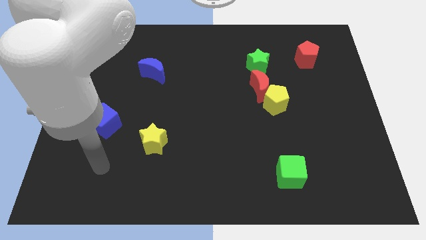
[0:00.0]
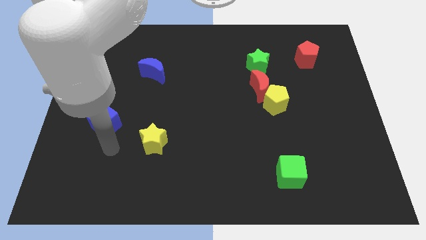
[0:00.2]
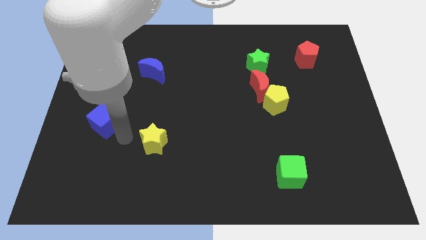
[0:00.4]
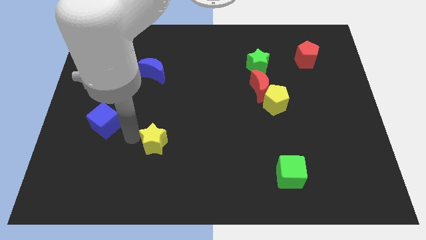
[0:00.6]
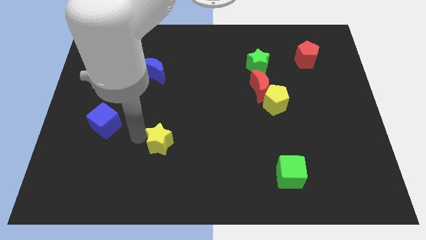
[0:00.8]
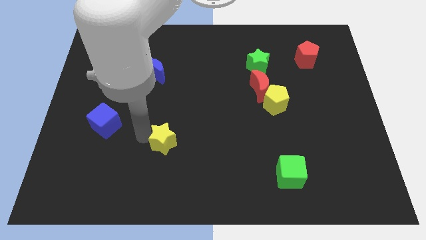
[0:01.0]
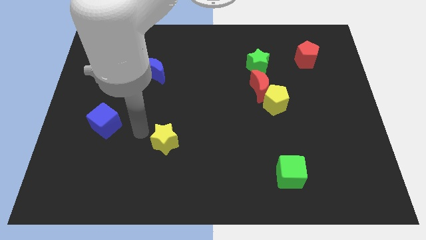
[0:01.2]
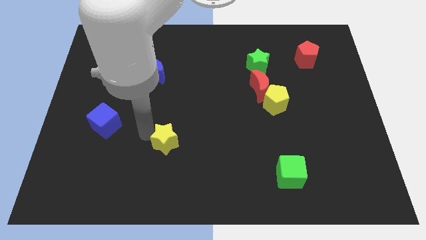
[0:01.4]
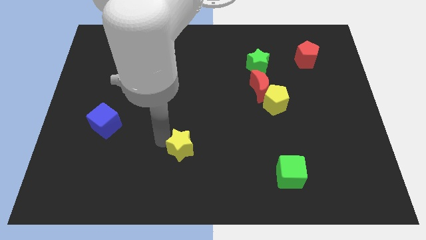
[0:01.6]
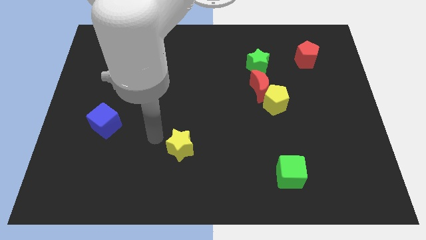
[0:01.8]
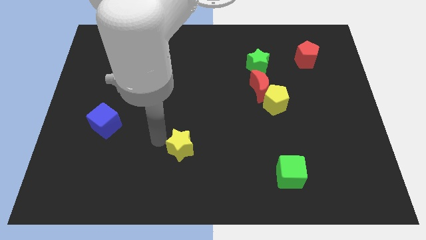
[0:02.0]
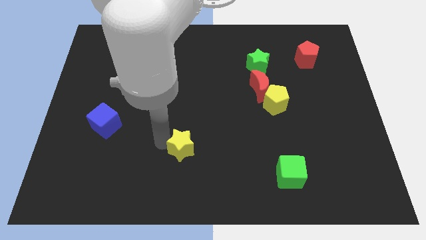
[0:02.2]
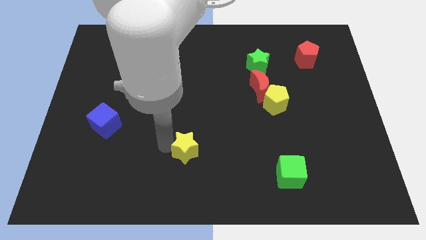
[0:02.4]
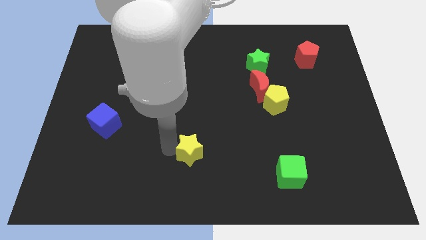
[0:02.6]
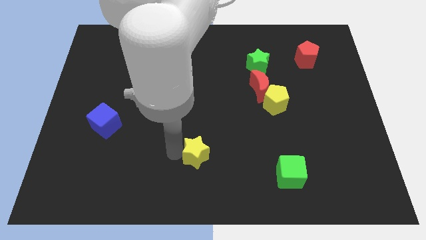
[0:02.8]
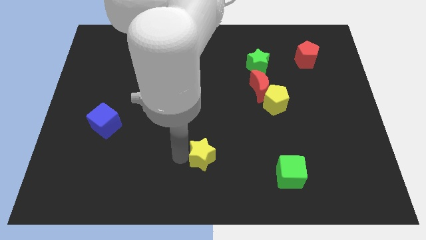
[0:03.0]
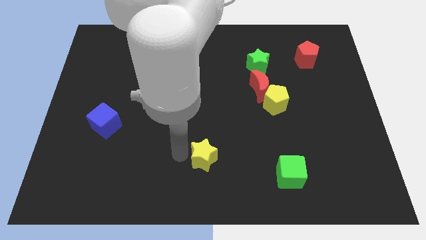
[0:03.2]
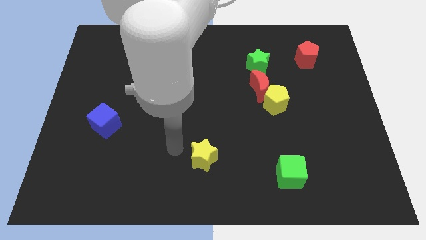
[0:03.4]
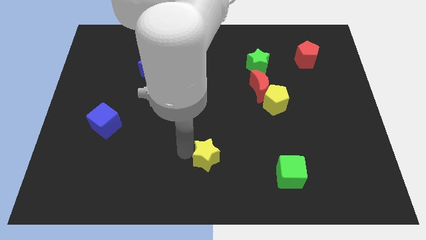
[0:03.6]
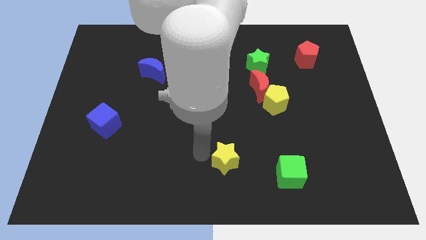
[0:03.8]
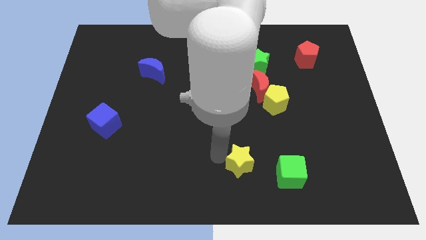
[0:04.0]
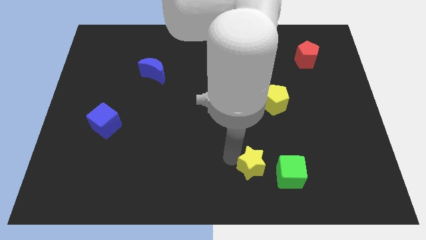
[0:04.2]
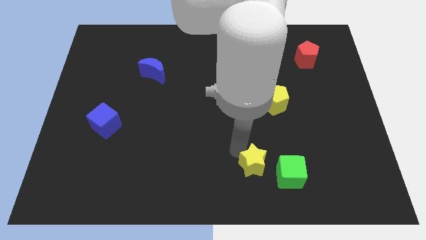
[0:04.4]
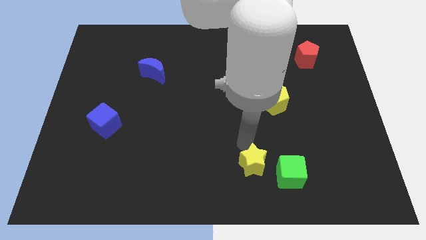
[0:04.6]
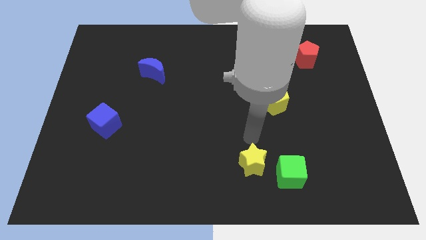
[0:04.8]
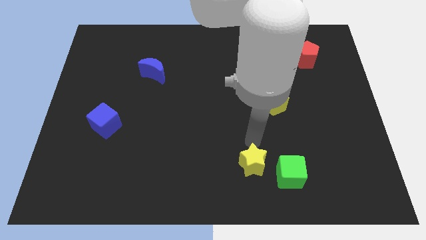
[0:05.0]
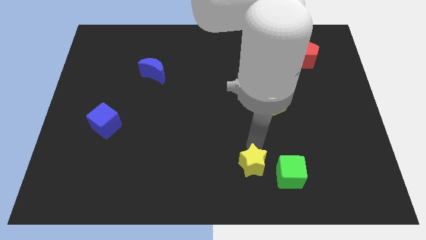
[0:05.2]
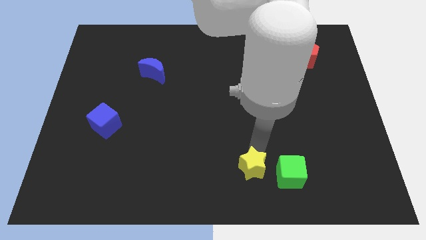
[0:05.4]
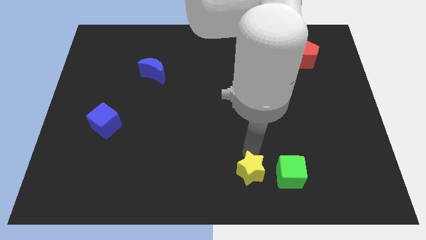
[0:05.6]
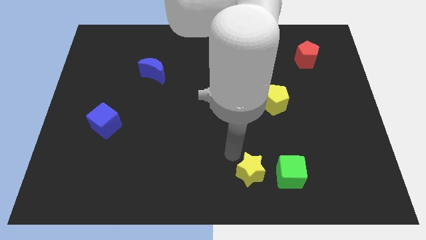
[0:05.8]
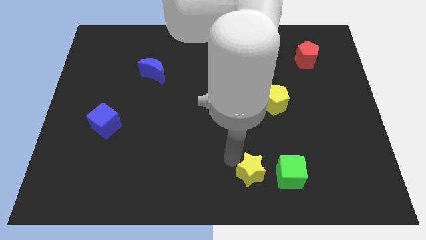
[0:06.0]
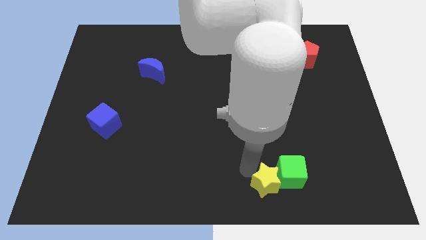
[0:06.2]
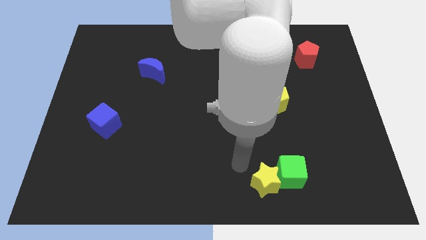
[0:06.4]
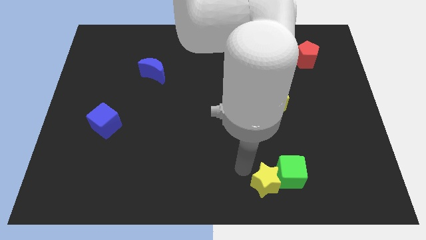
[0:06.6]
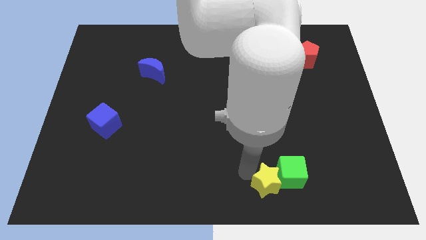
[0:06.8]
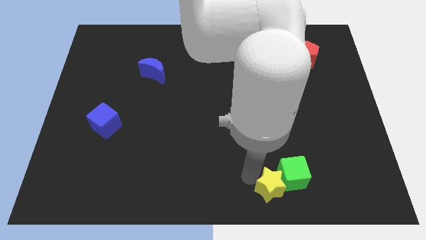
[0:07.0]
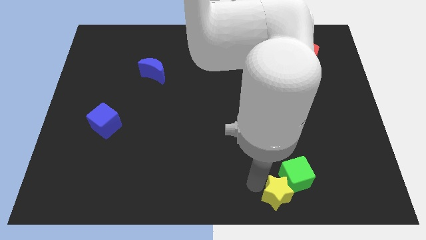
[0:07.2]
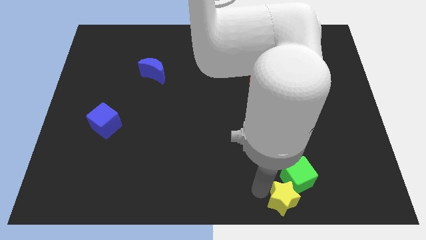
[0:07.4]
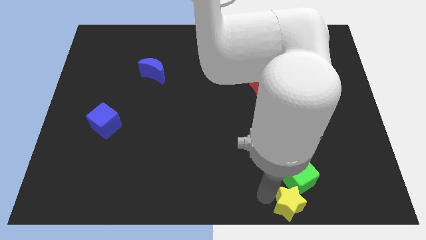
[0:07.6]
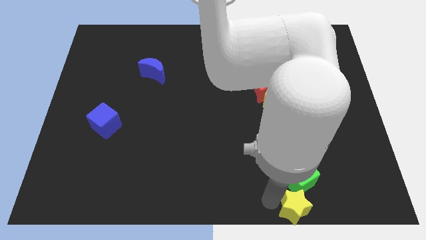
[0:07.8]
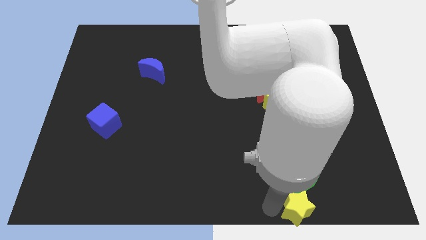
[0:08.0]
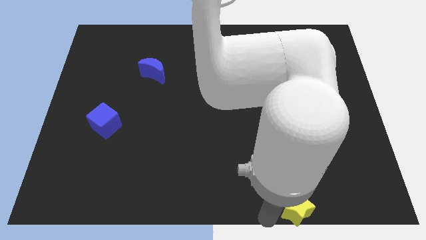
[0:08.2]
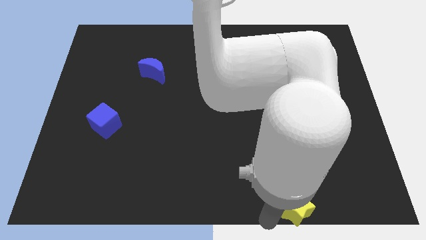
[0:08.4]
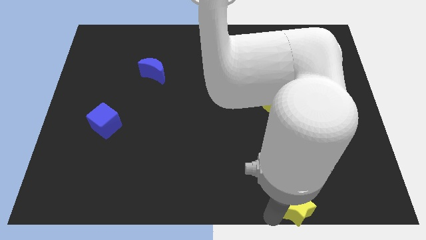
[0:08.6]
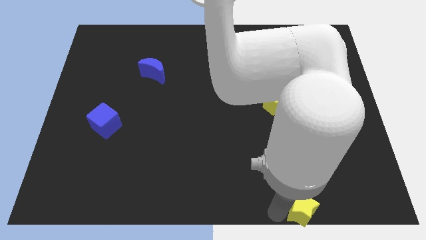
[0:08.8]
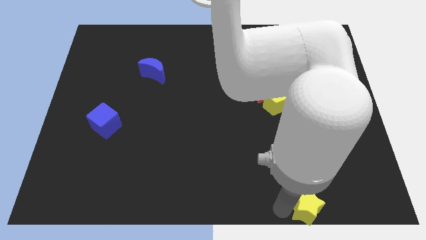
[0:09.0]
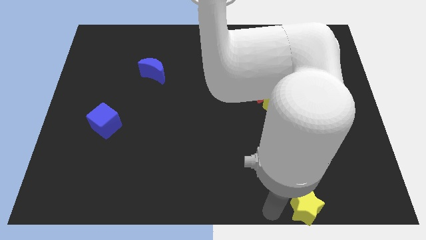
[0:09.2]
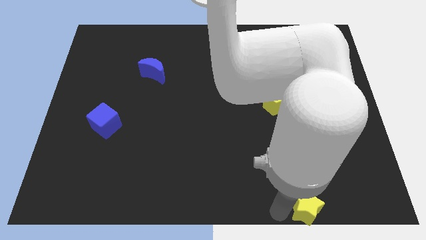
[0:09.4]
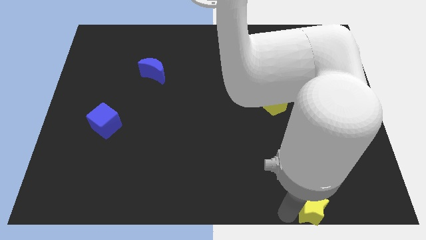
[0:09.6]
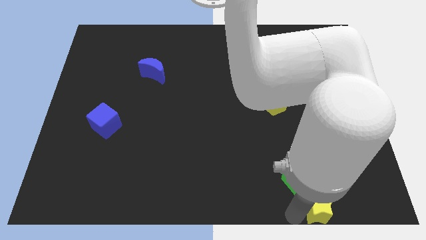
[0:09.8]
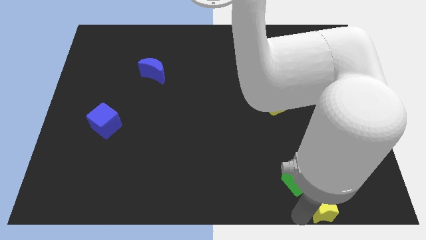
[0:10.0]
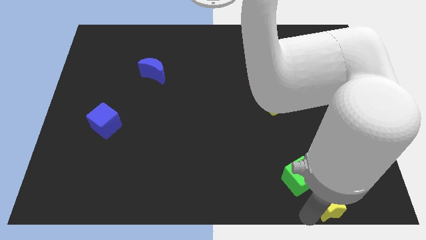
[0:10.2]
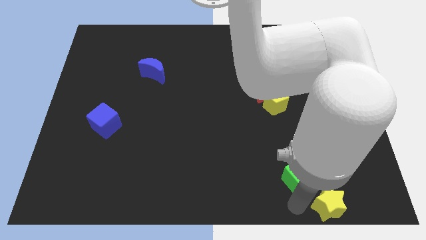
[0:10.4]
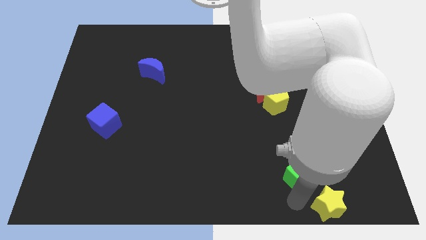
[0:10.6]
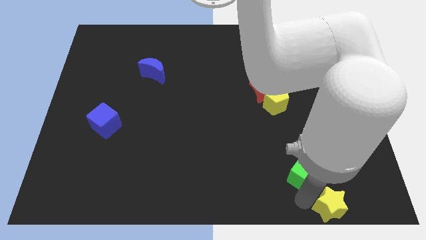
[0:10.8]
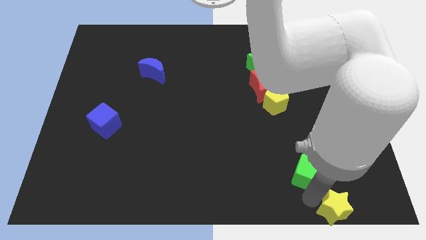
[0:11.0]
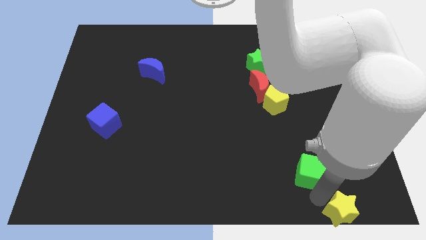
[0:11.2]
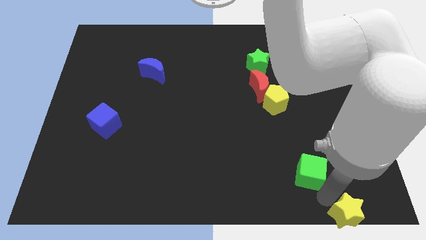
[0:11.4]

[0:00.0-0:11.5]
slide the yellow star to the lower right corner
